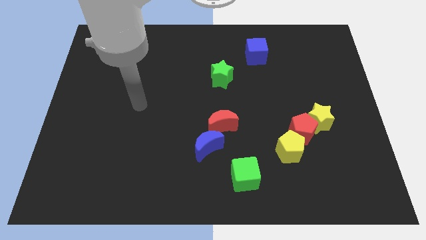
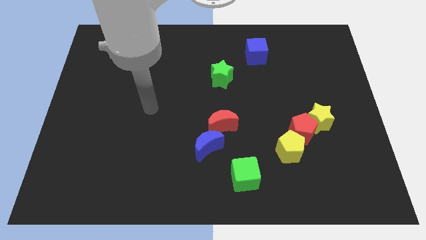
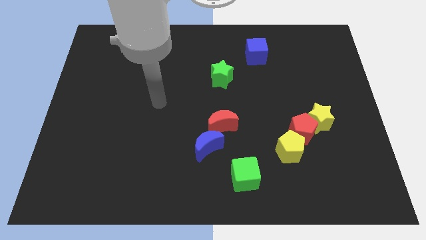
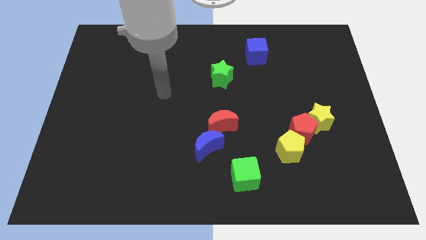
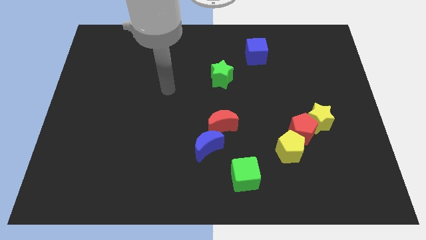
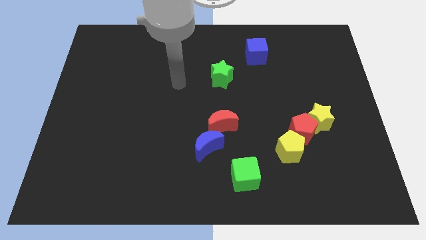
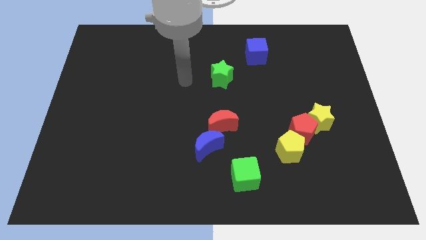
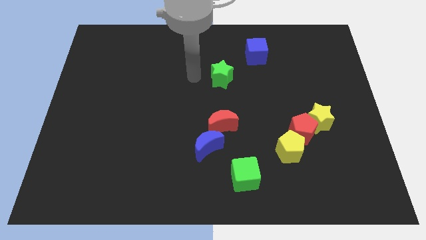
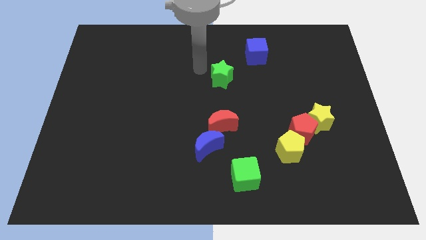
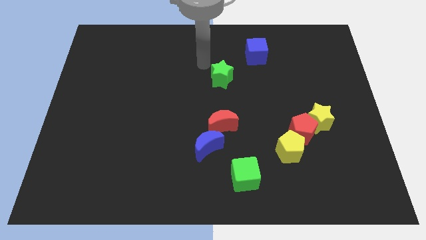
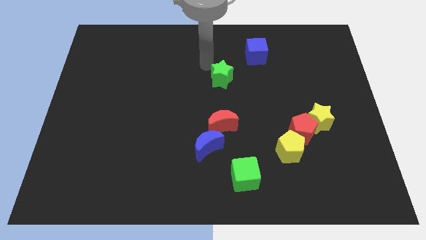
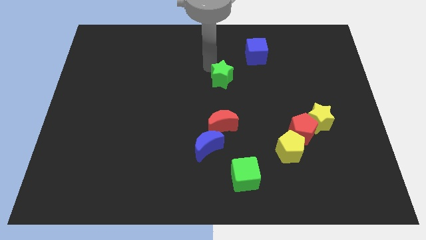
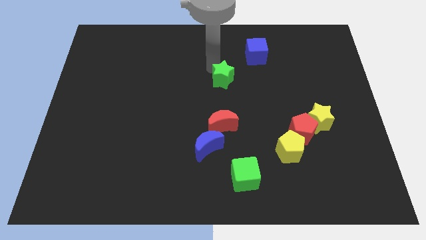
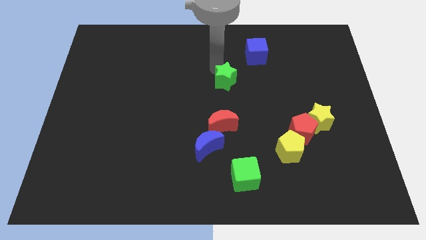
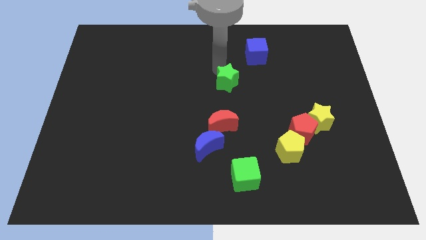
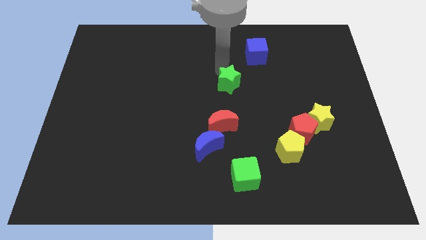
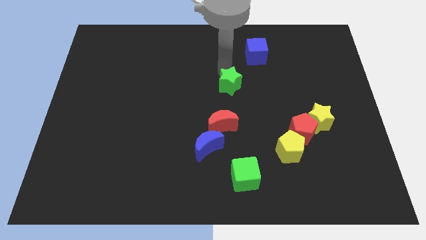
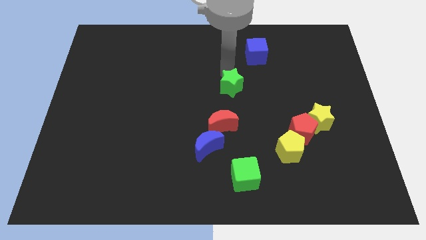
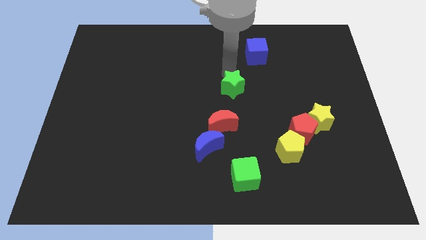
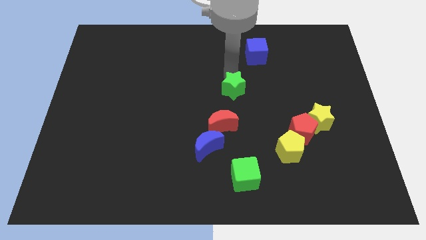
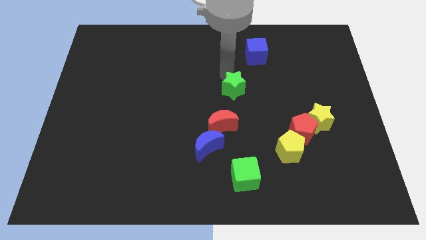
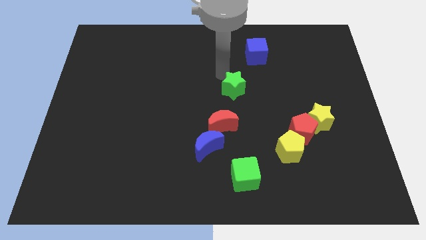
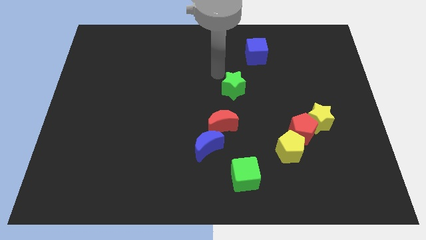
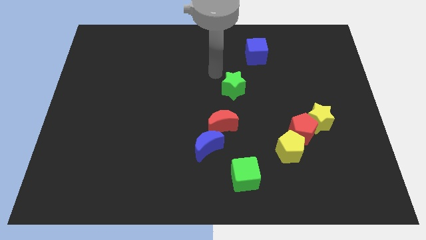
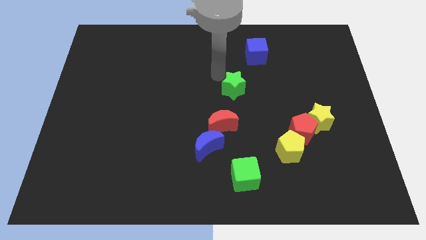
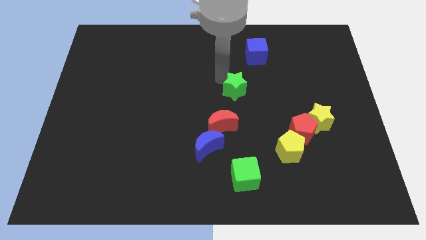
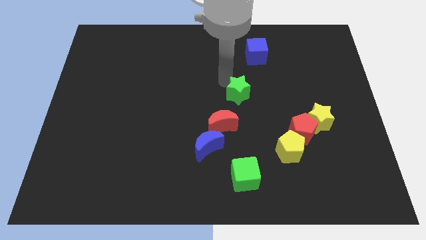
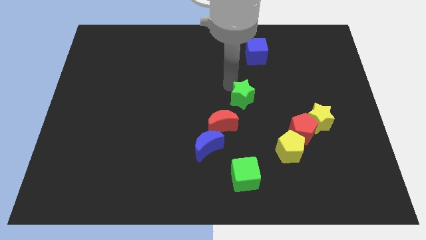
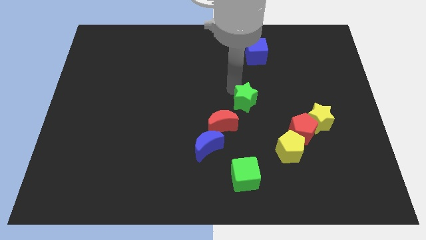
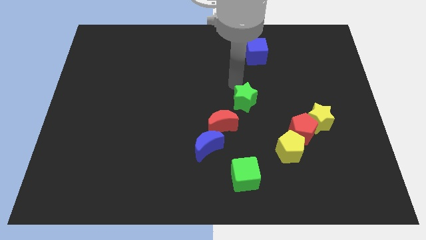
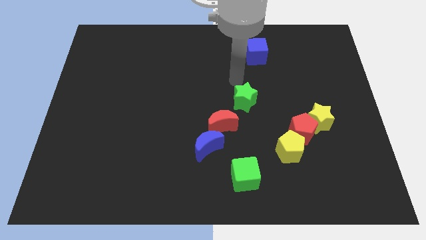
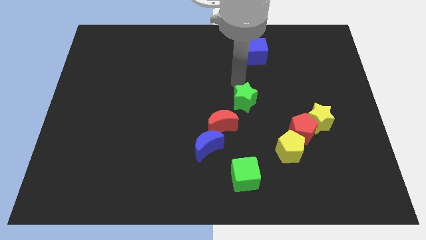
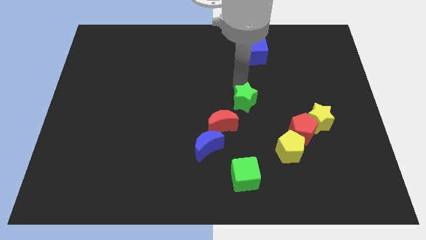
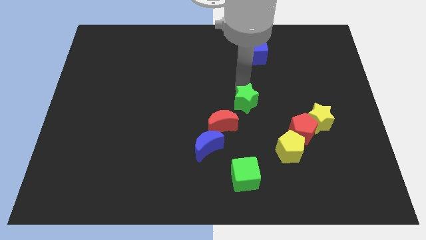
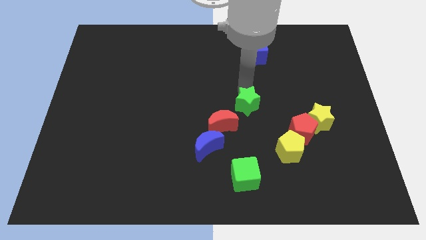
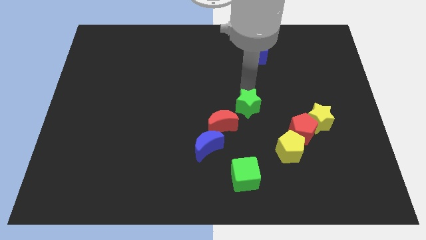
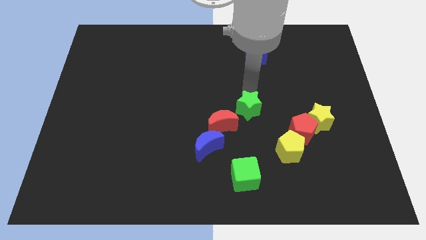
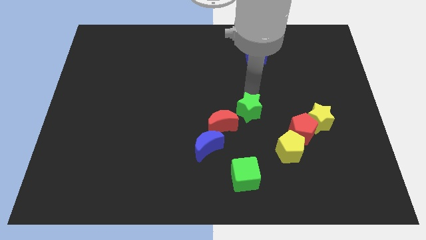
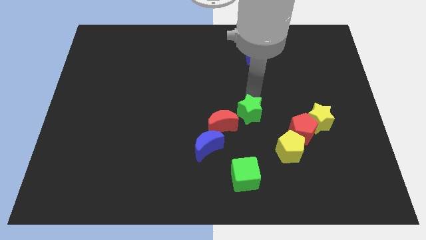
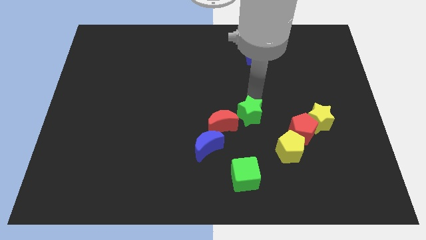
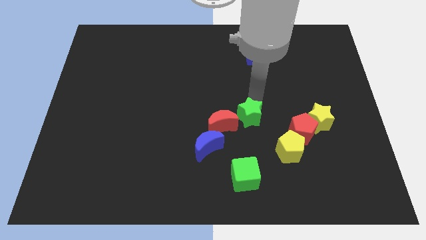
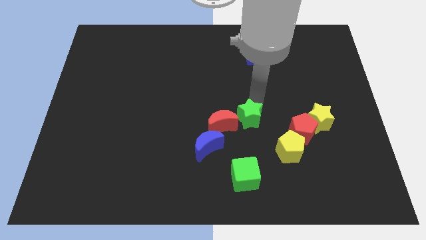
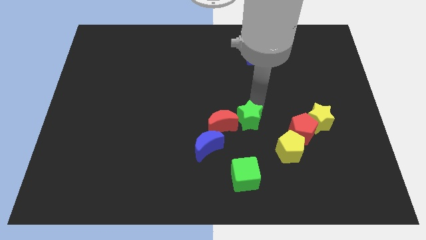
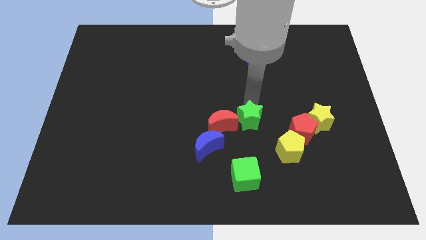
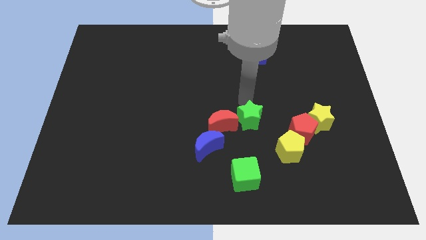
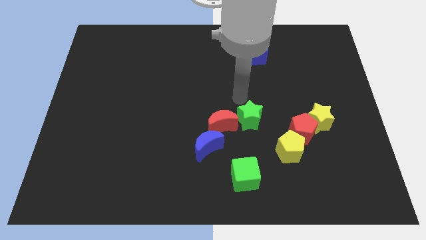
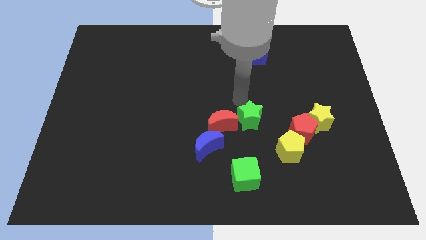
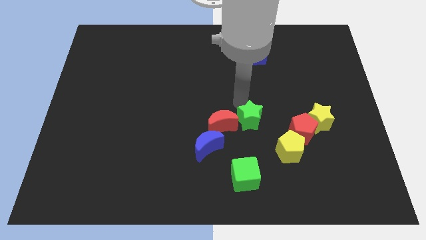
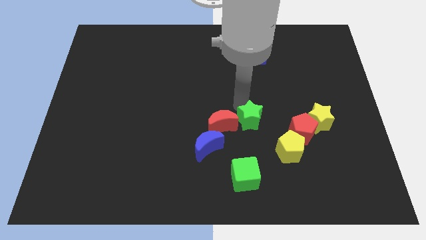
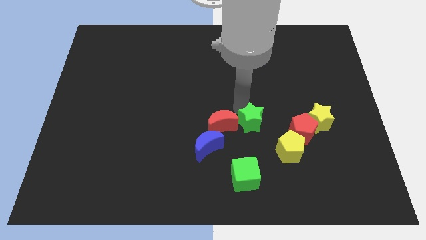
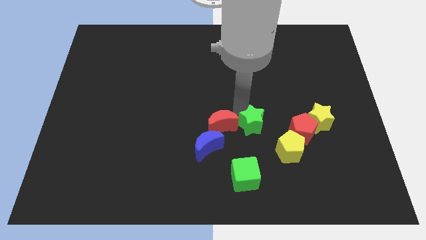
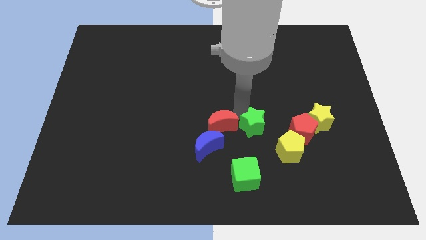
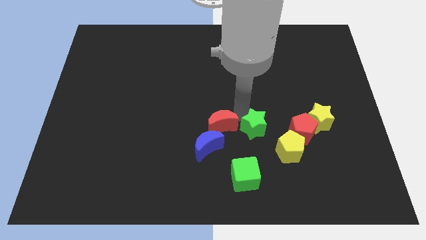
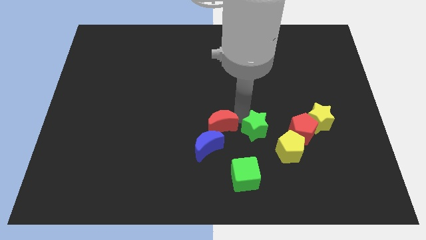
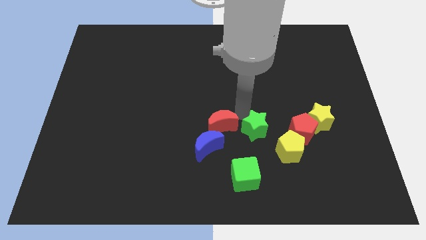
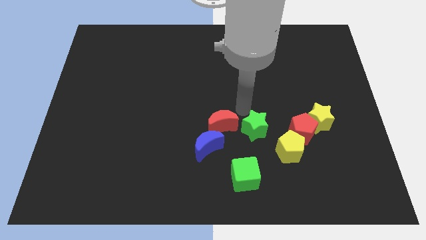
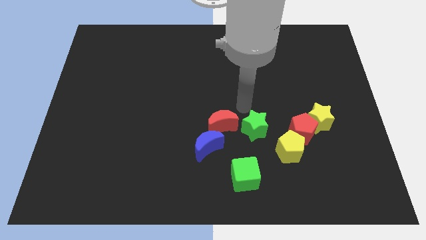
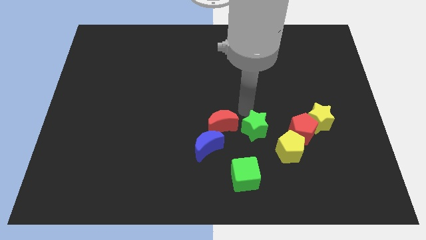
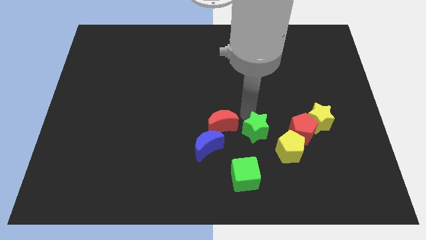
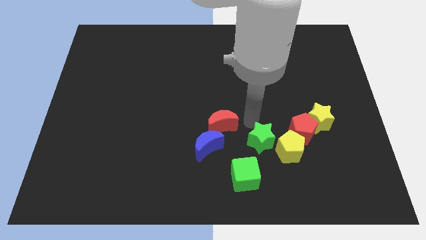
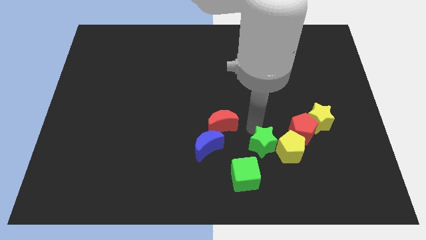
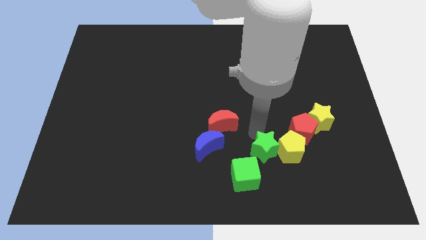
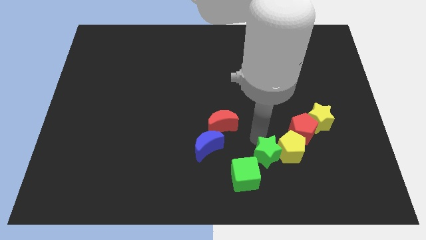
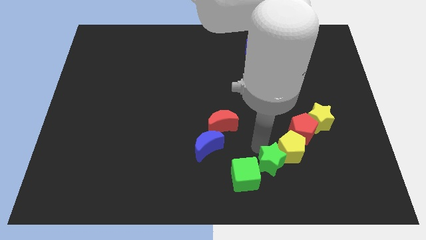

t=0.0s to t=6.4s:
push the green star downwards and to the right

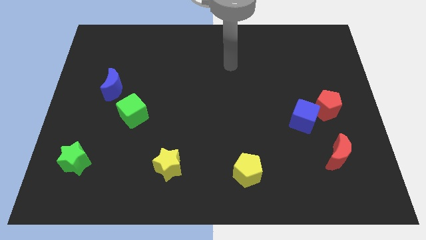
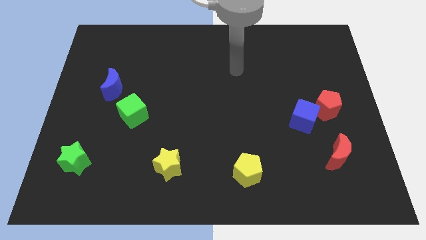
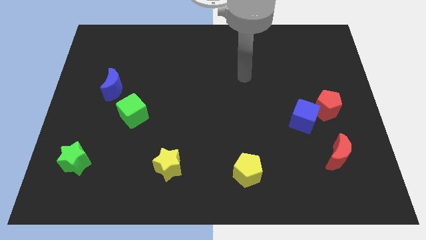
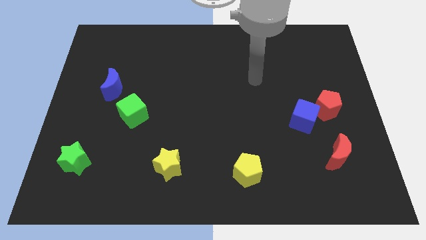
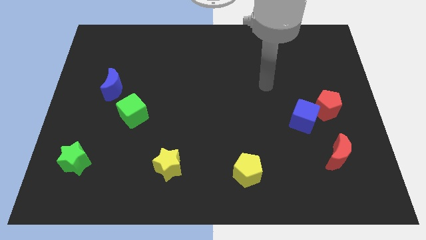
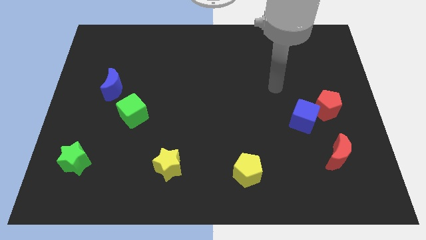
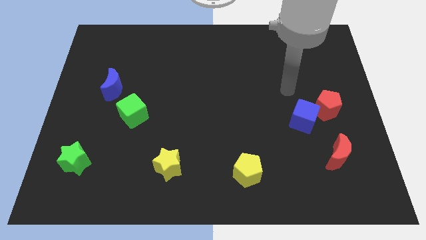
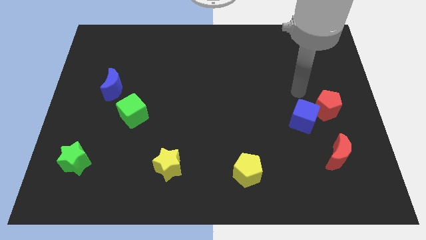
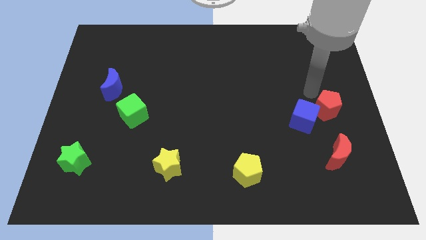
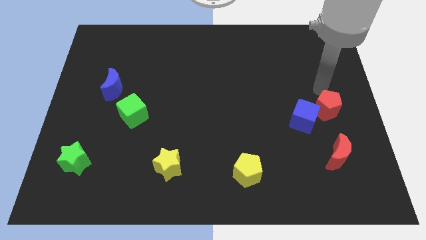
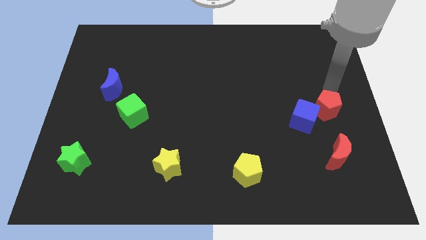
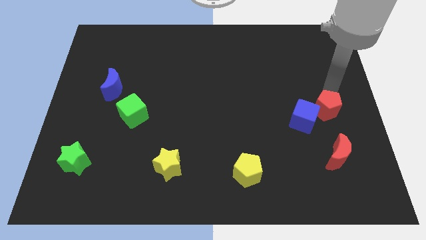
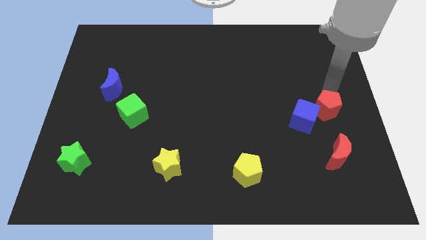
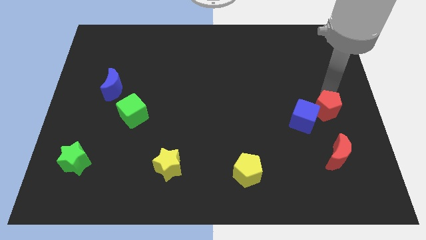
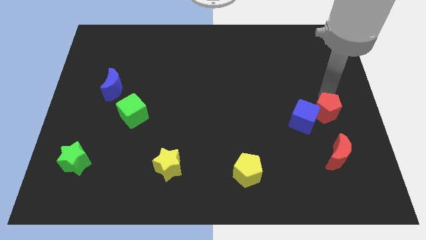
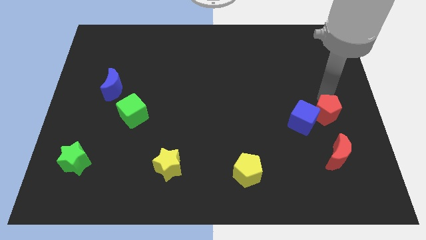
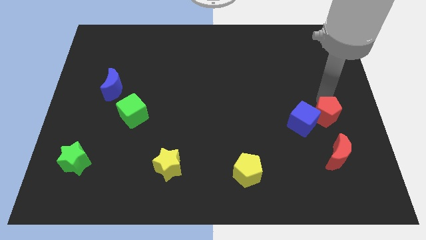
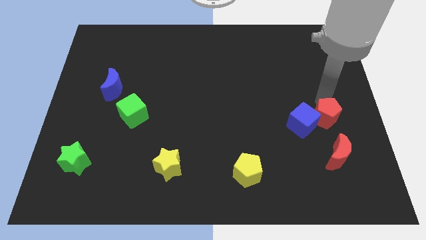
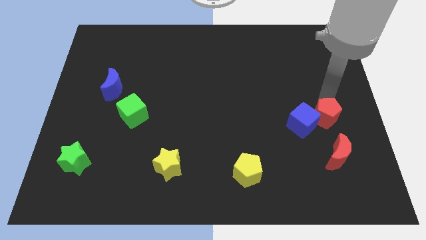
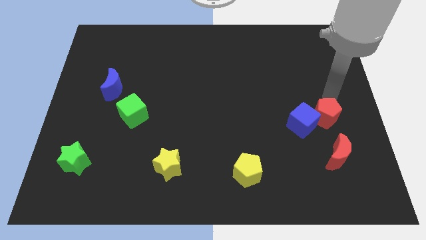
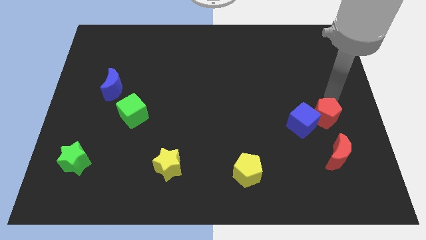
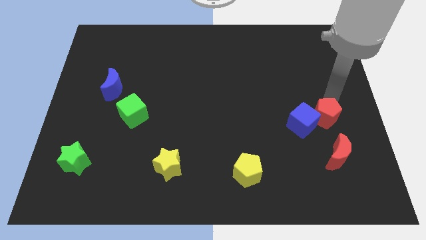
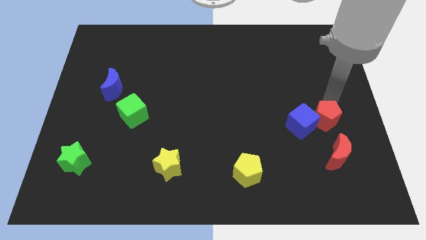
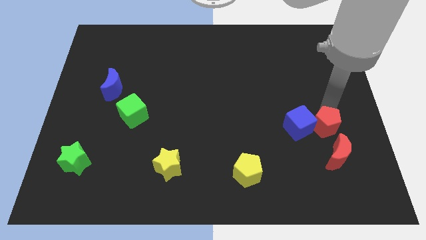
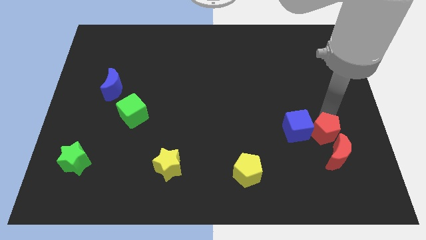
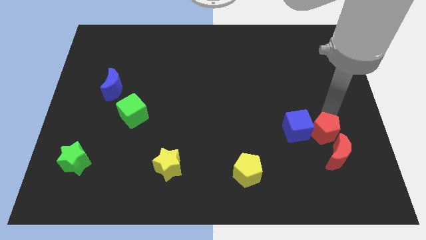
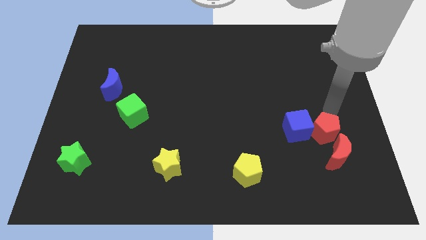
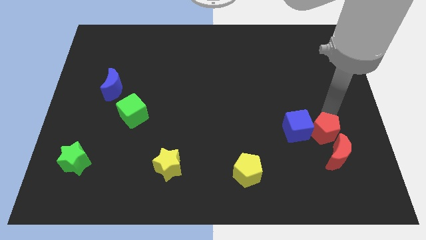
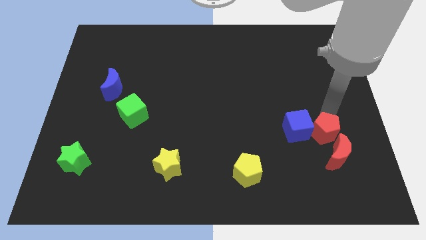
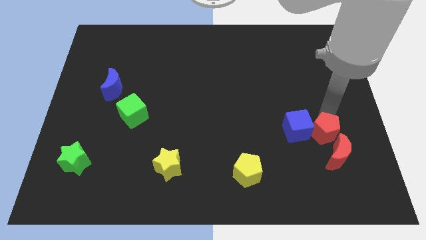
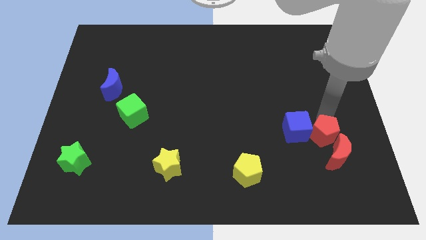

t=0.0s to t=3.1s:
slightly push the red pentagon downwards
